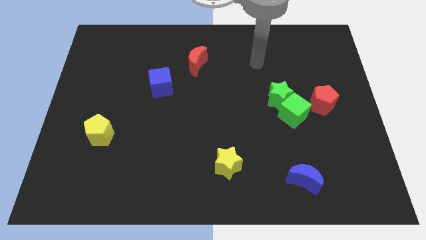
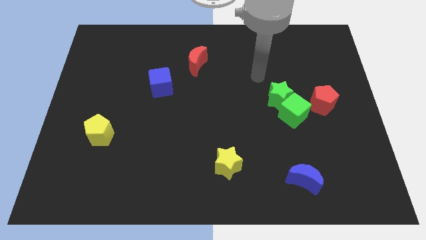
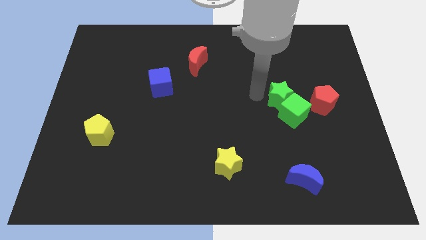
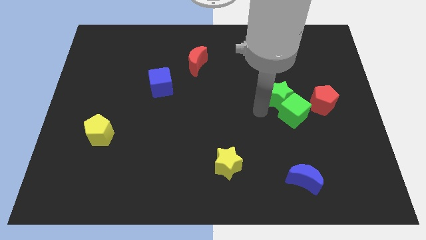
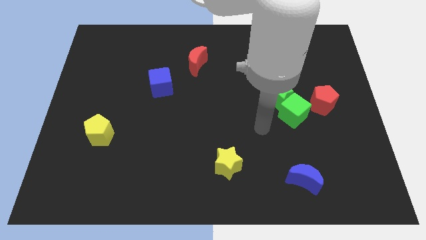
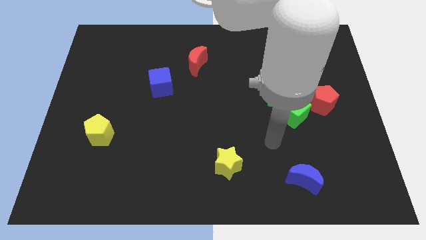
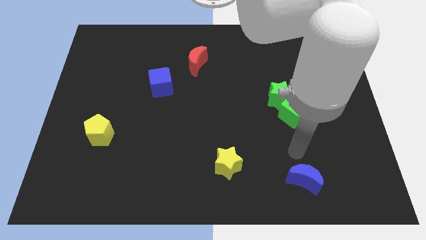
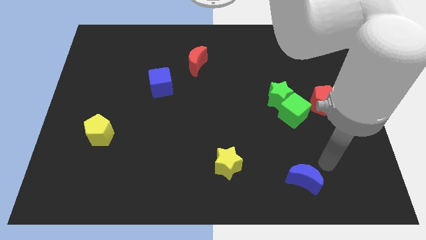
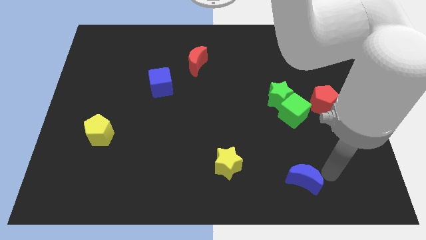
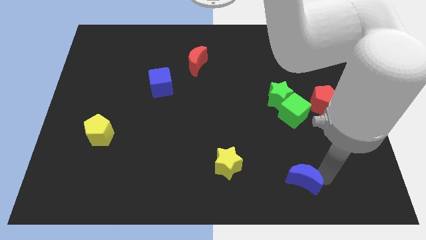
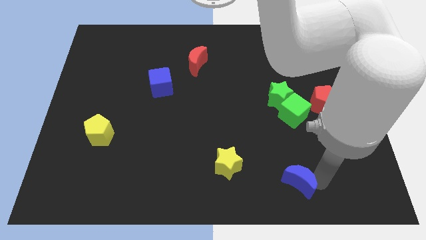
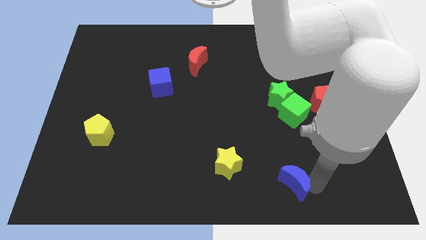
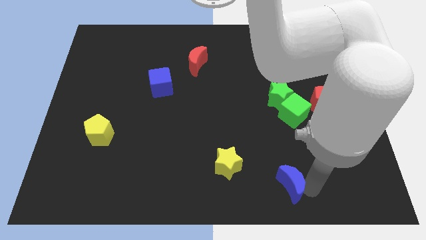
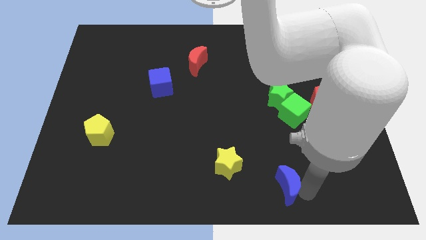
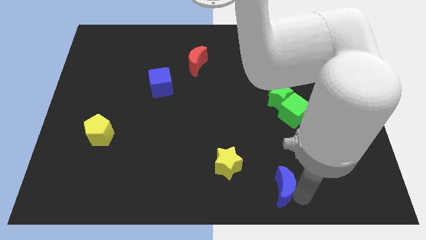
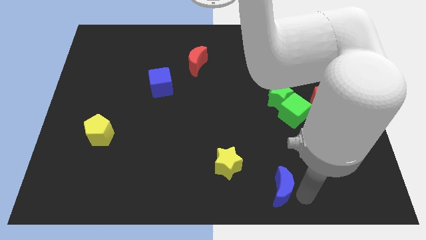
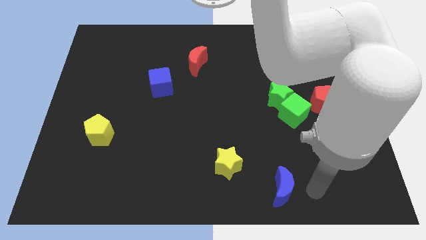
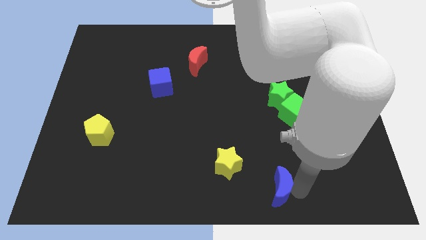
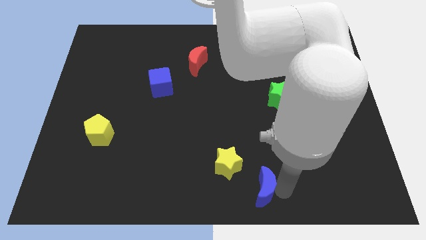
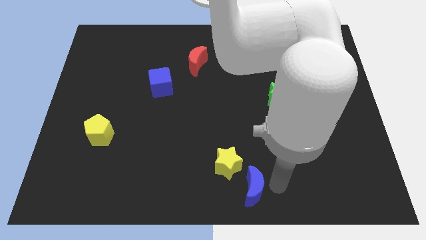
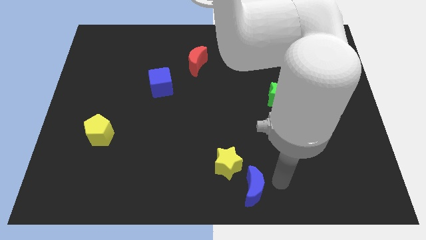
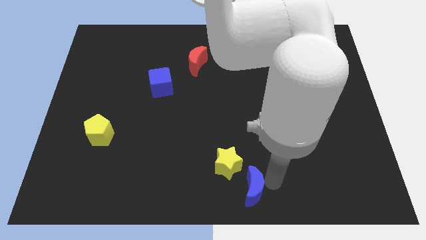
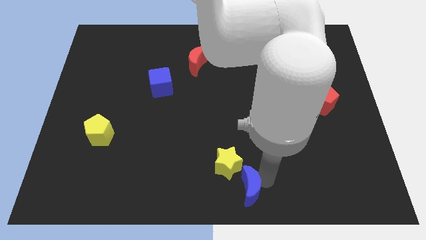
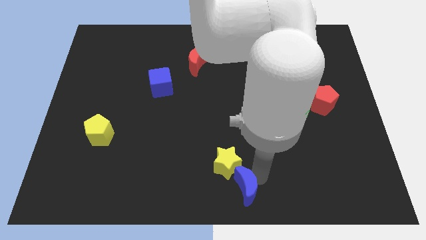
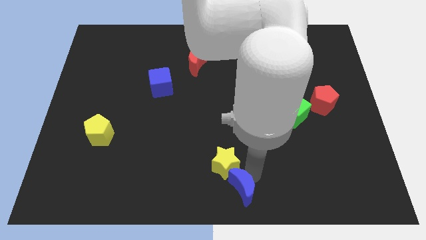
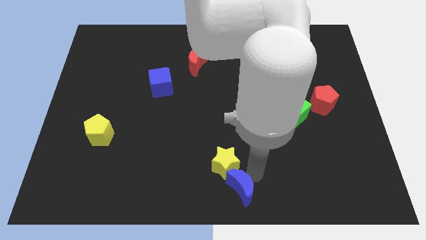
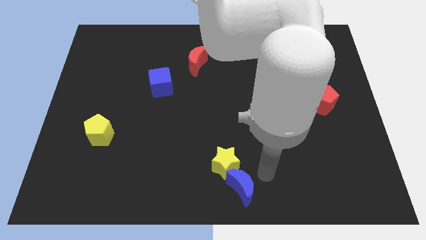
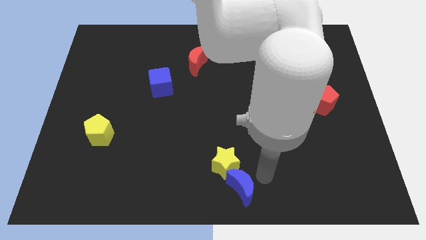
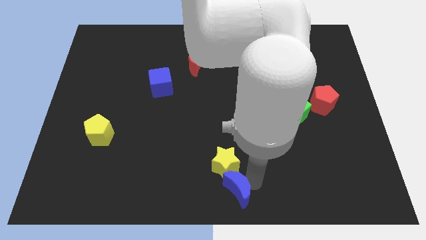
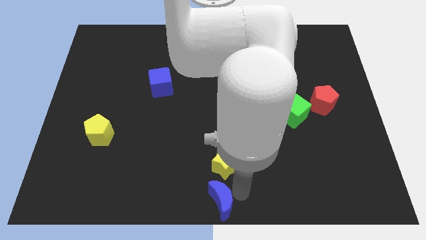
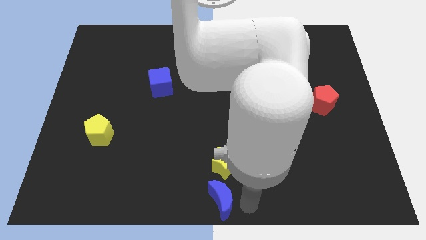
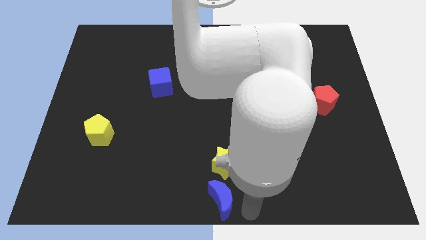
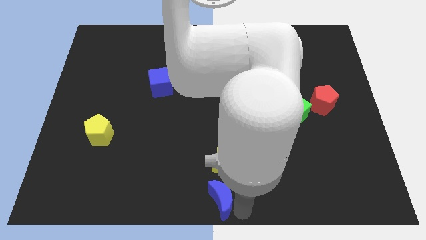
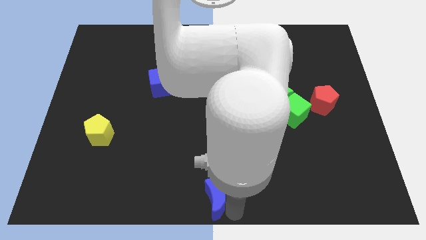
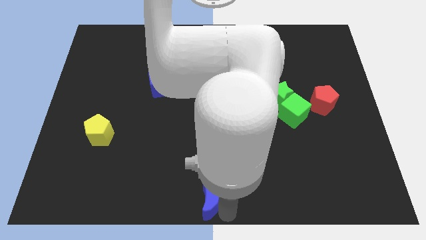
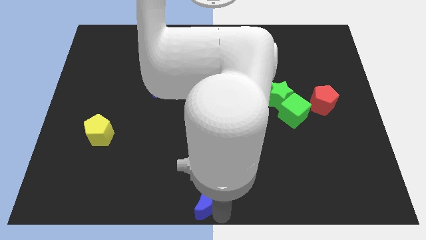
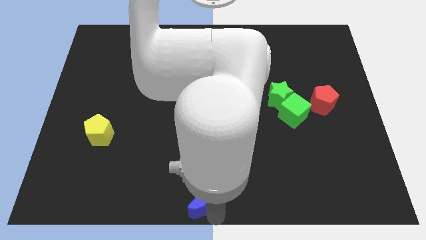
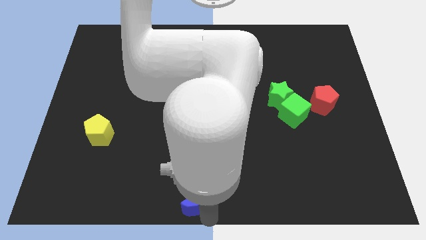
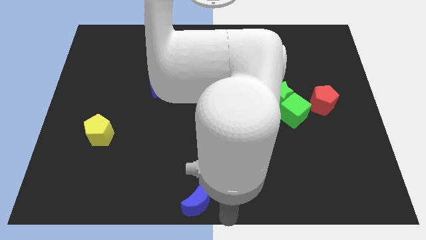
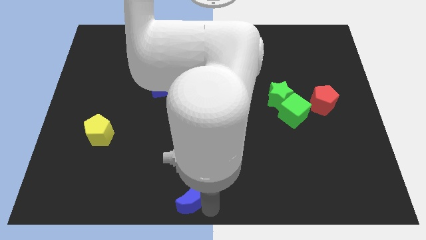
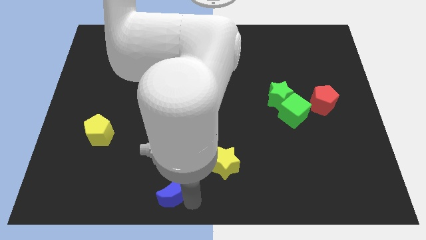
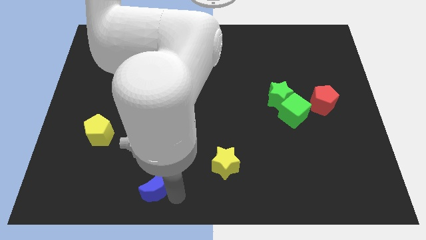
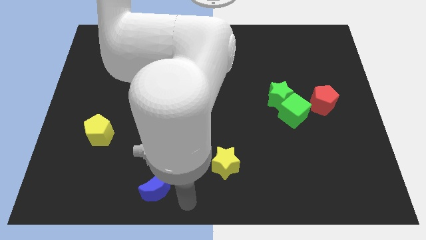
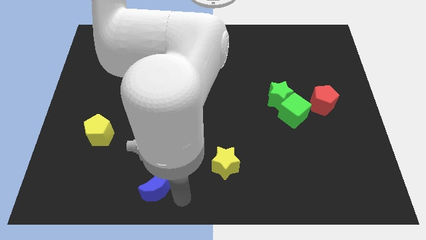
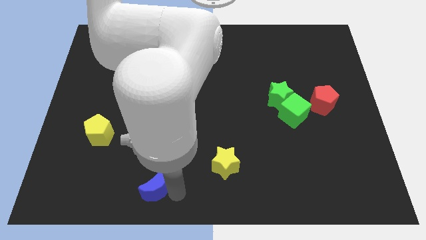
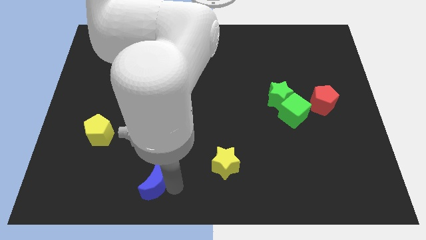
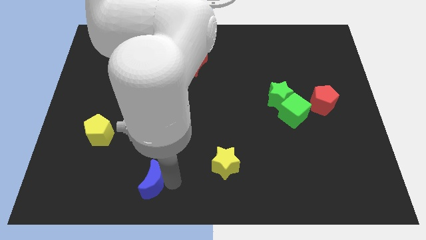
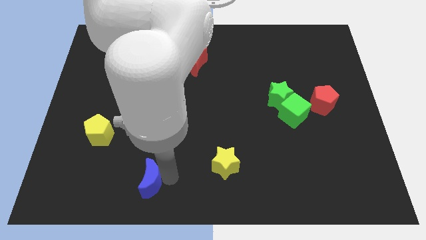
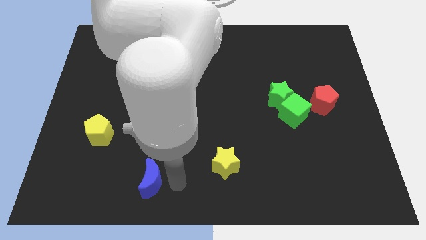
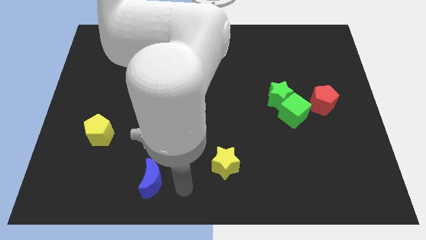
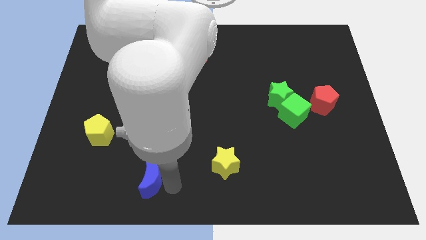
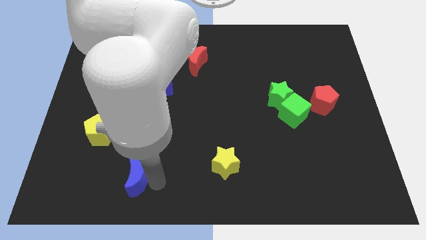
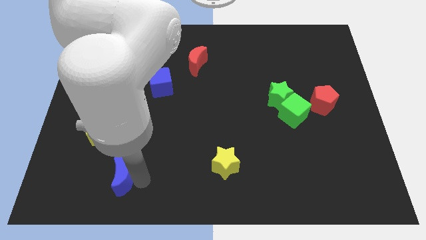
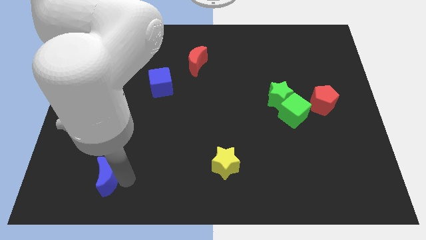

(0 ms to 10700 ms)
move the blue moon below the yellow pentagon

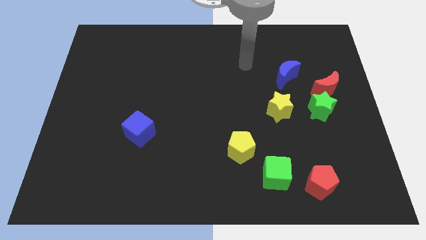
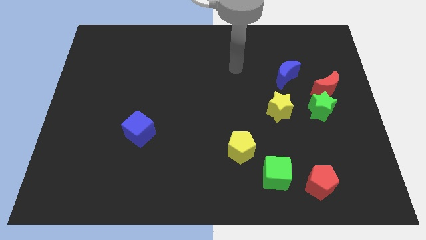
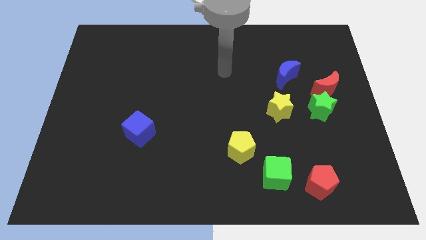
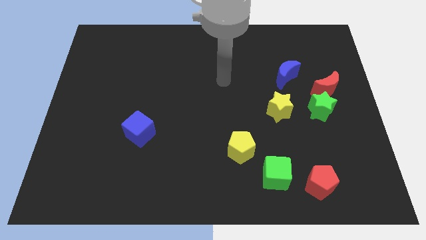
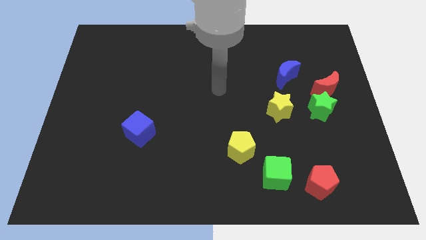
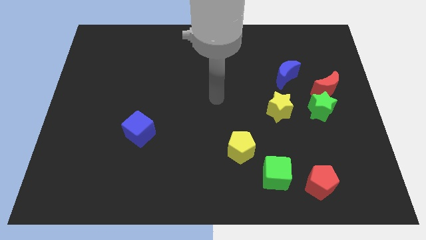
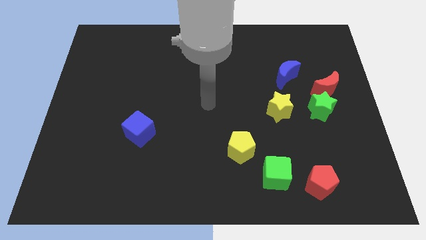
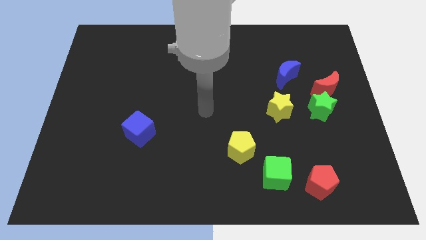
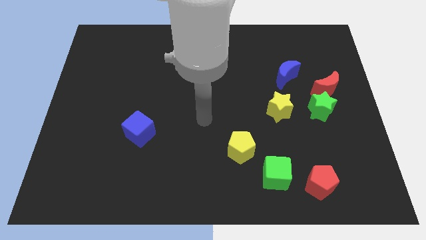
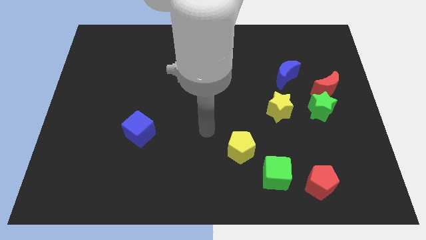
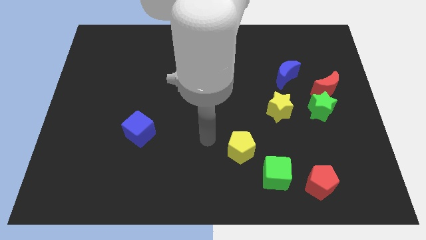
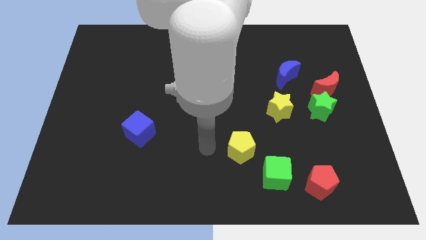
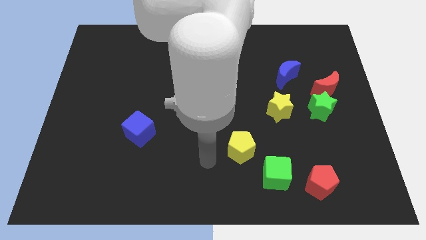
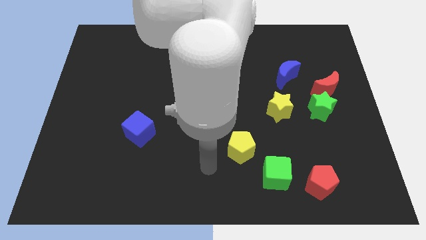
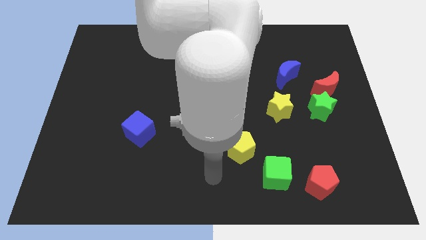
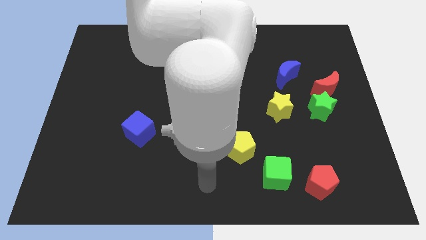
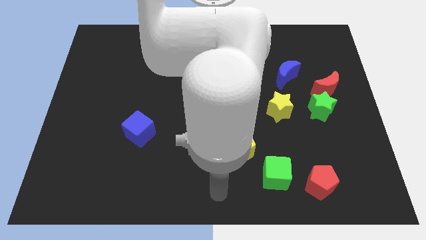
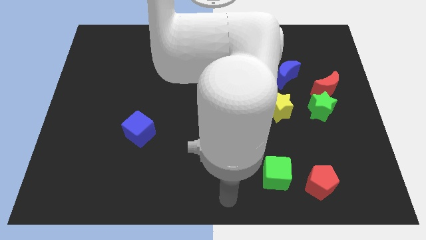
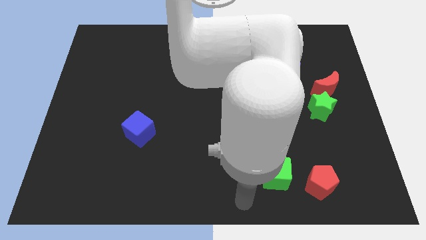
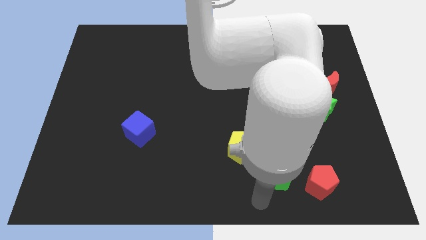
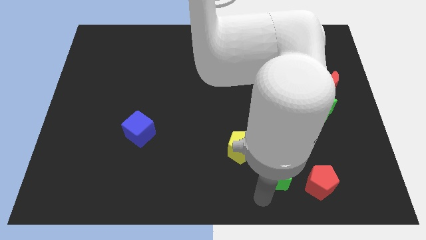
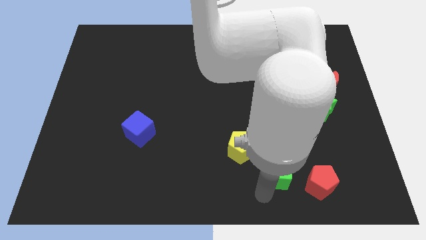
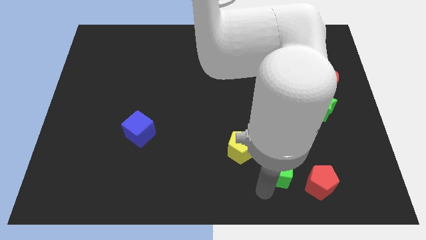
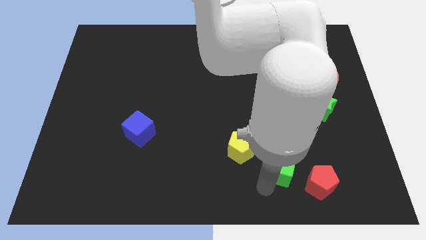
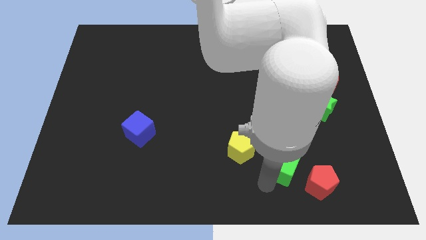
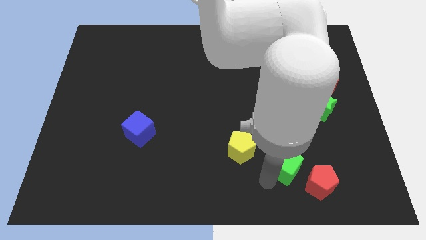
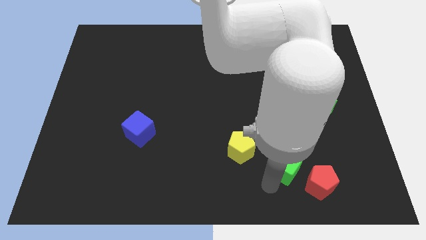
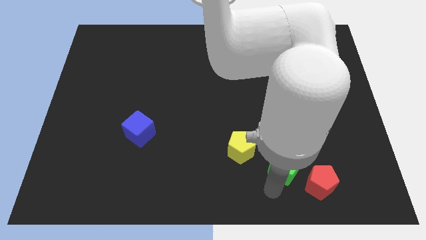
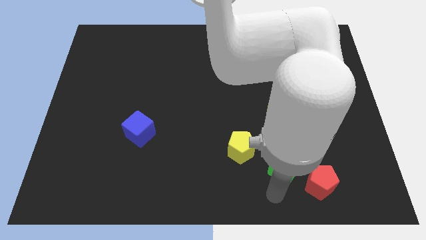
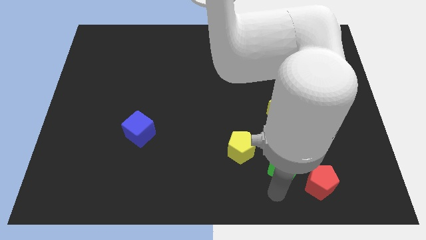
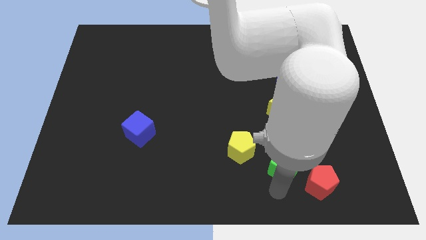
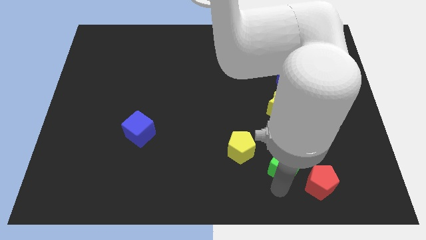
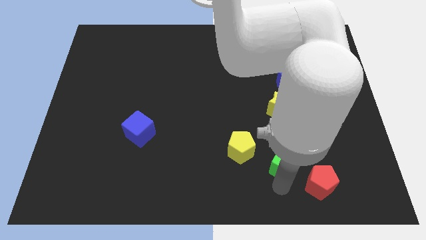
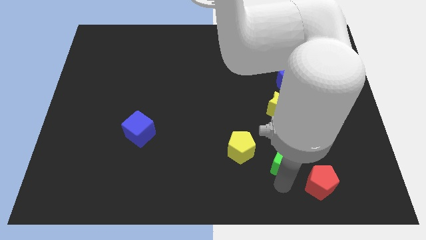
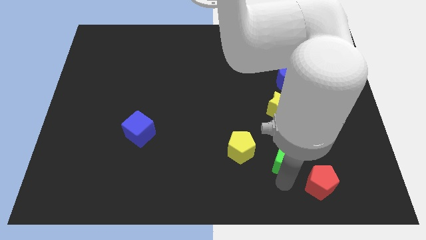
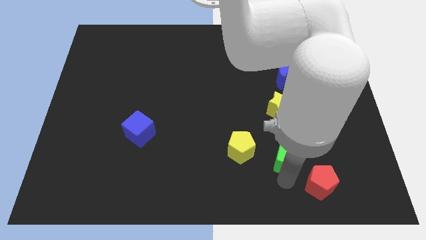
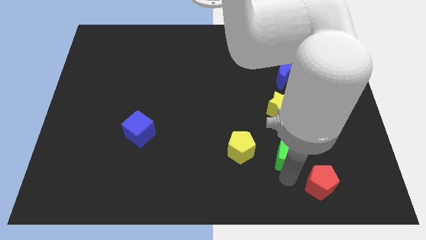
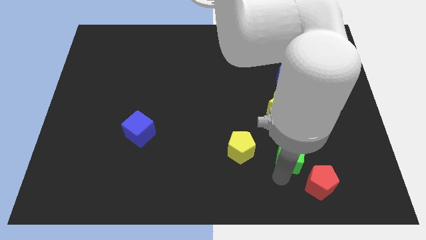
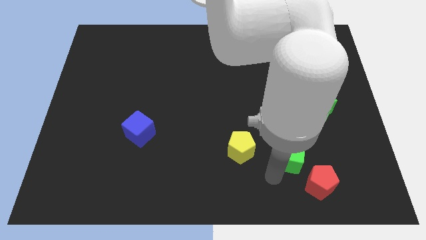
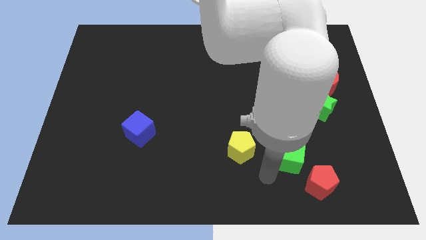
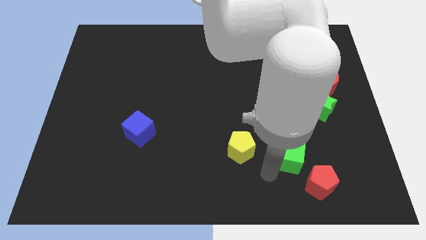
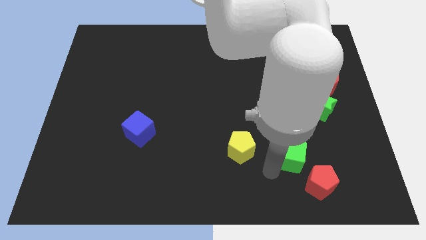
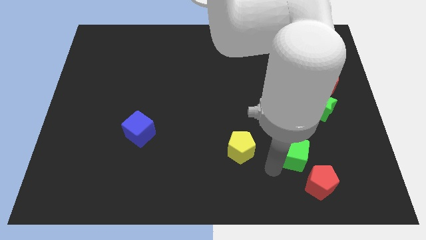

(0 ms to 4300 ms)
slide the green cube to the top side of the red pentagon
